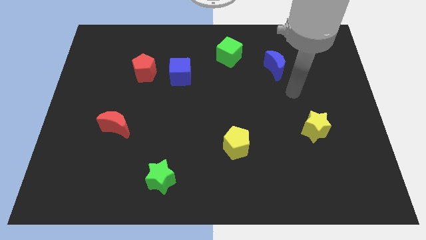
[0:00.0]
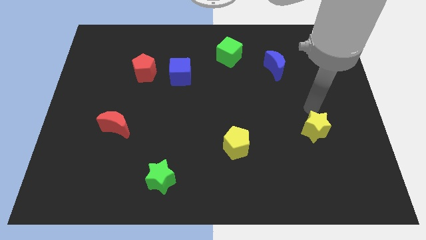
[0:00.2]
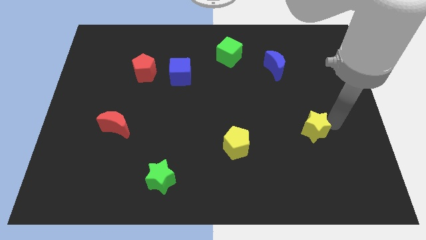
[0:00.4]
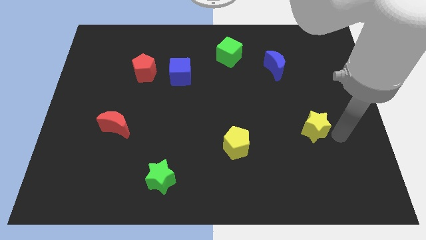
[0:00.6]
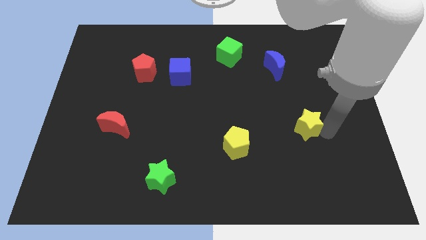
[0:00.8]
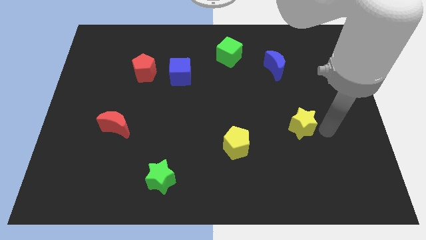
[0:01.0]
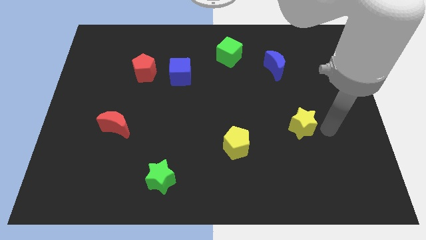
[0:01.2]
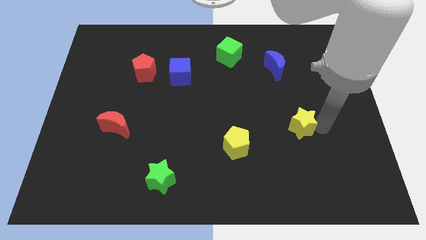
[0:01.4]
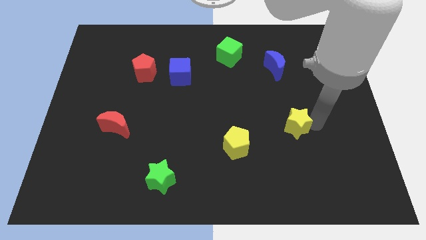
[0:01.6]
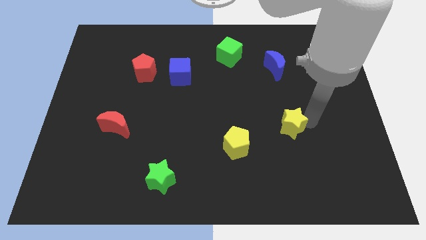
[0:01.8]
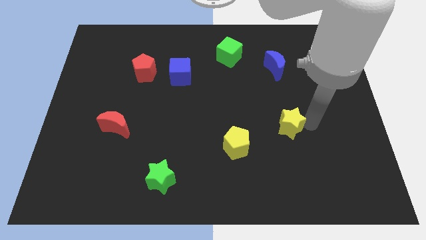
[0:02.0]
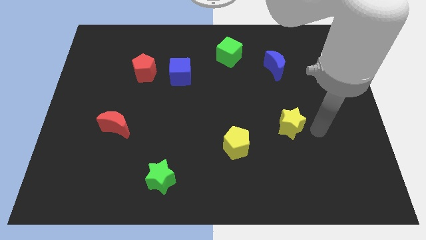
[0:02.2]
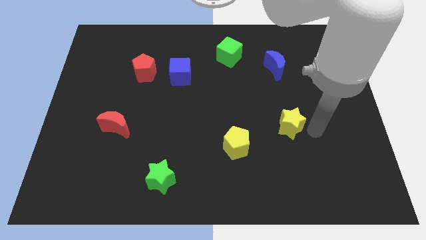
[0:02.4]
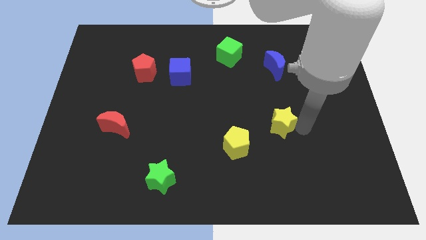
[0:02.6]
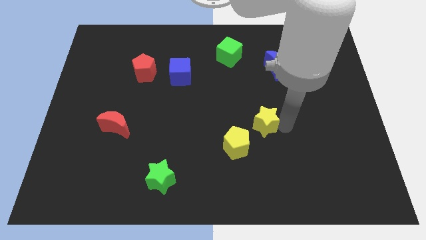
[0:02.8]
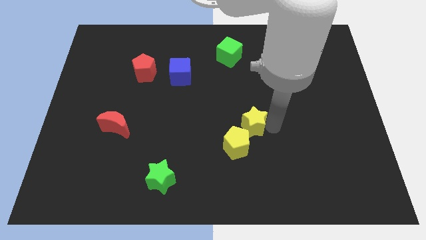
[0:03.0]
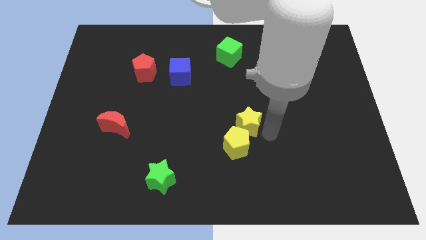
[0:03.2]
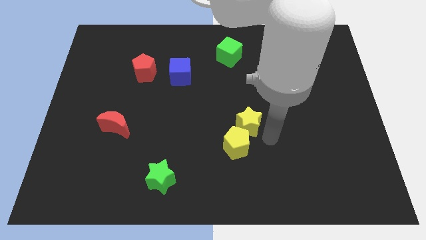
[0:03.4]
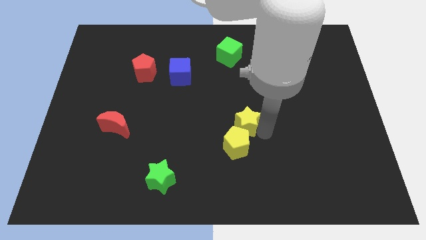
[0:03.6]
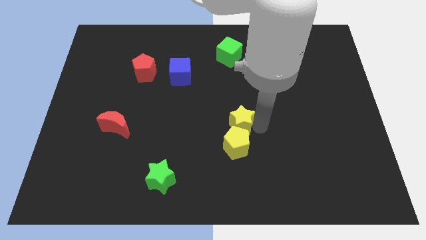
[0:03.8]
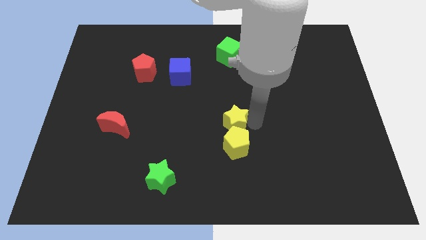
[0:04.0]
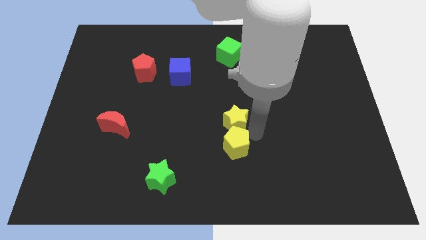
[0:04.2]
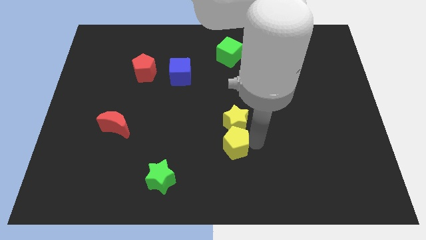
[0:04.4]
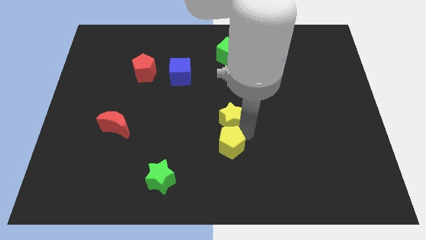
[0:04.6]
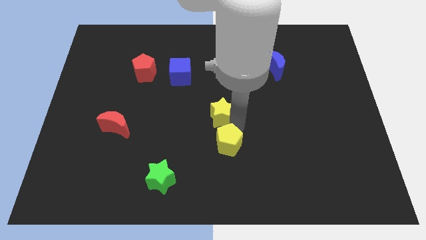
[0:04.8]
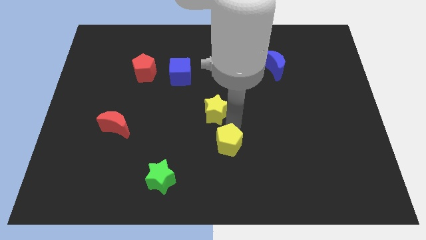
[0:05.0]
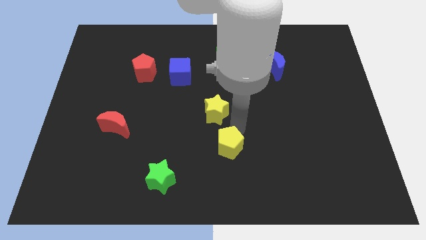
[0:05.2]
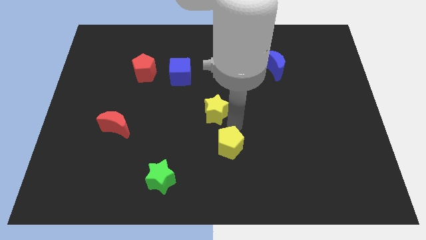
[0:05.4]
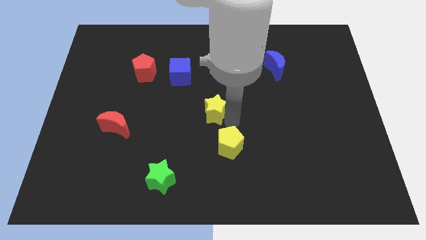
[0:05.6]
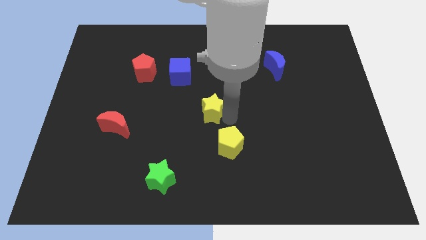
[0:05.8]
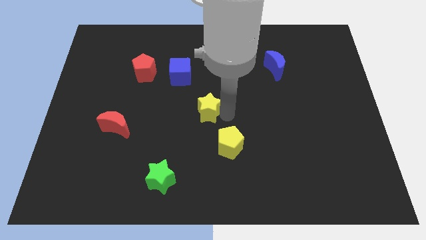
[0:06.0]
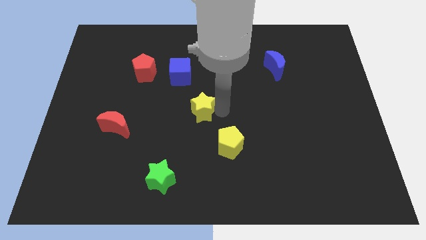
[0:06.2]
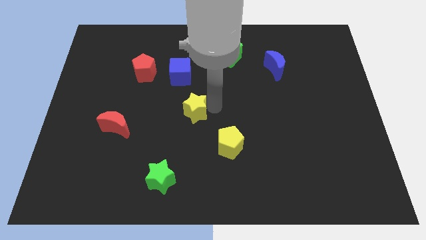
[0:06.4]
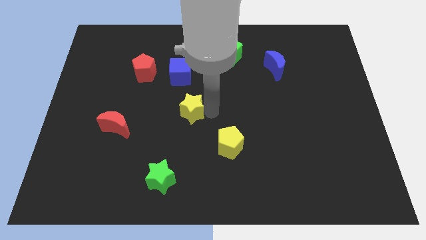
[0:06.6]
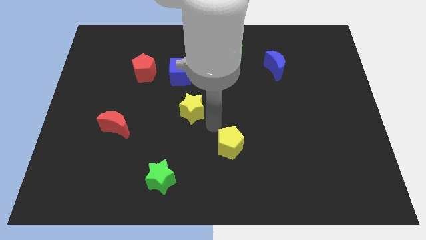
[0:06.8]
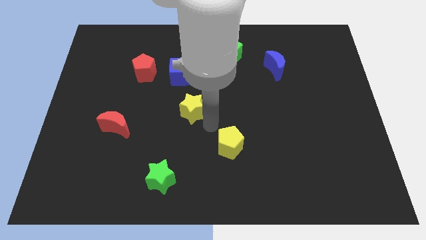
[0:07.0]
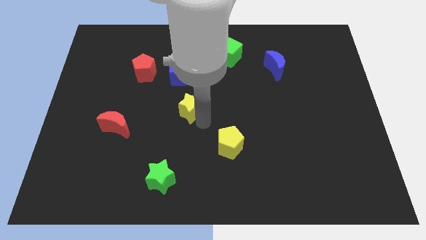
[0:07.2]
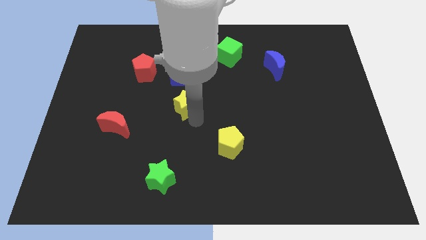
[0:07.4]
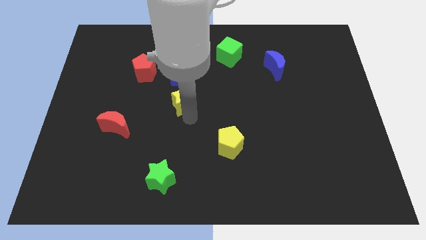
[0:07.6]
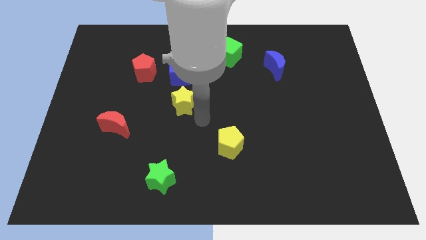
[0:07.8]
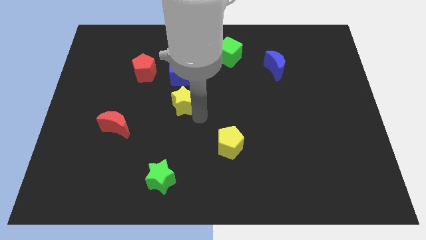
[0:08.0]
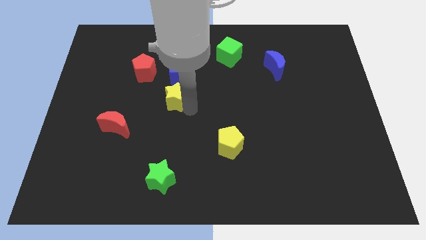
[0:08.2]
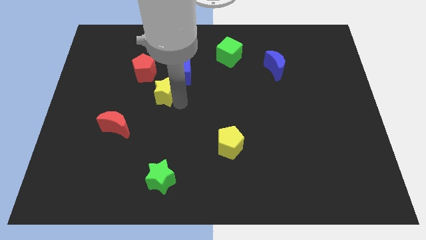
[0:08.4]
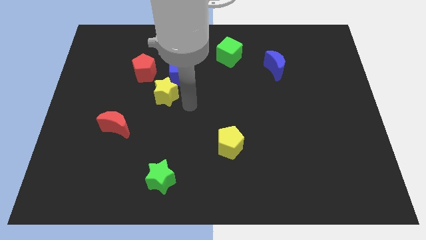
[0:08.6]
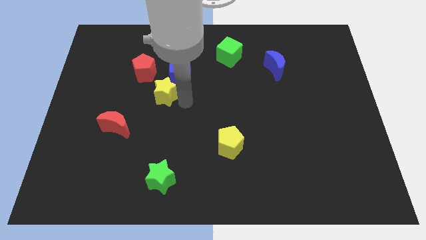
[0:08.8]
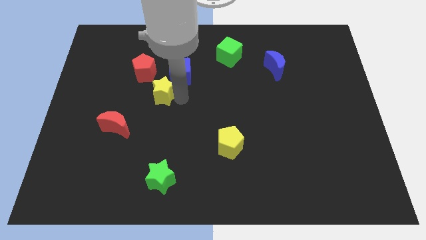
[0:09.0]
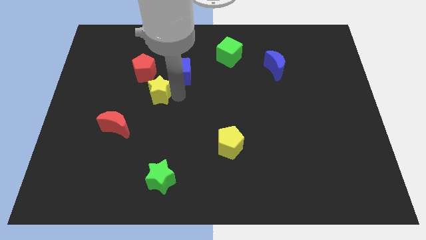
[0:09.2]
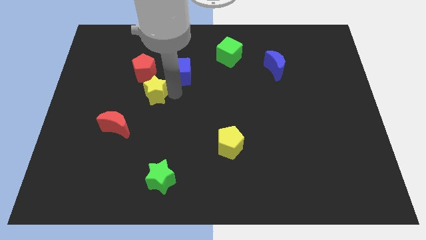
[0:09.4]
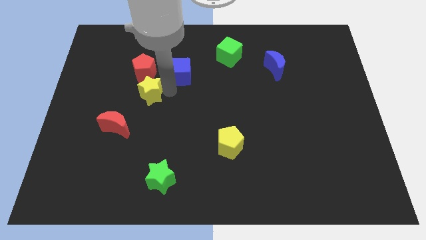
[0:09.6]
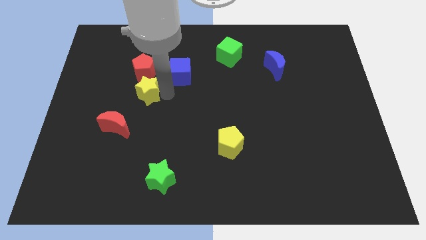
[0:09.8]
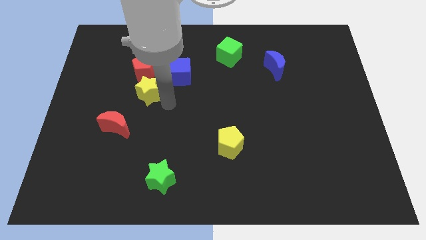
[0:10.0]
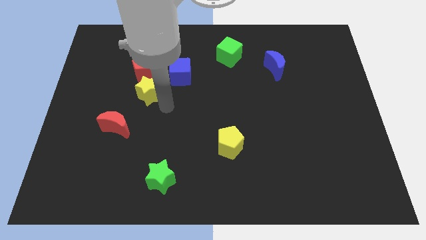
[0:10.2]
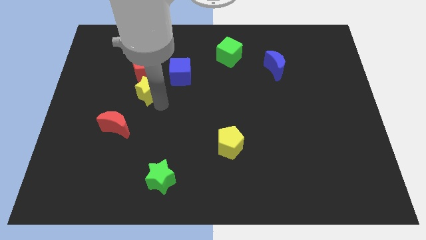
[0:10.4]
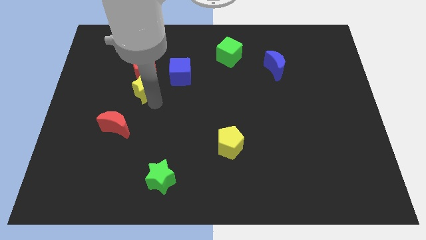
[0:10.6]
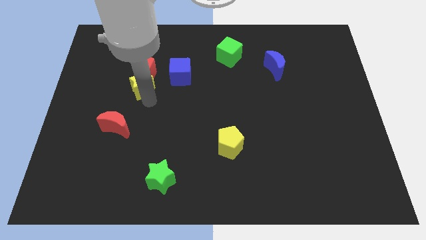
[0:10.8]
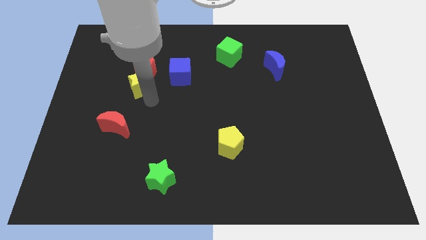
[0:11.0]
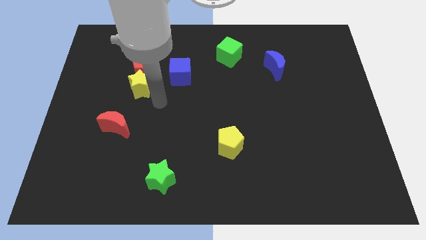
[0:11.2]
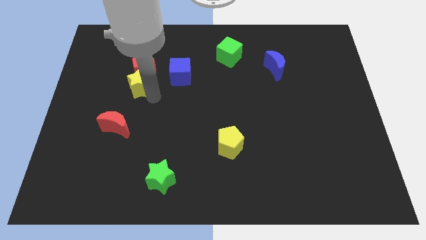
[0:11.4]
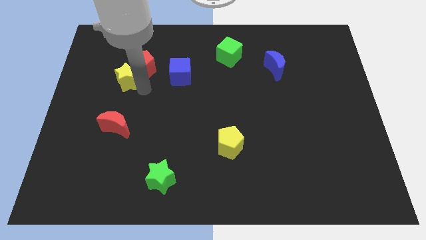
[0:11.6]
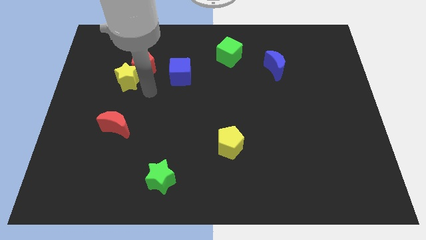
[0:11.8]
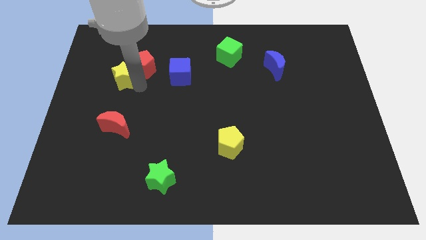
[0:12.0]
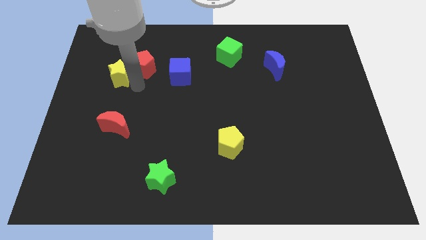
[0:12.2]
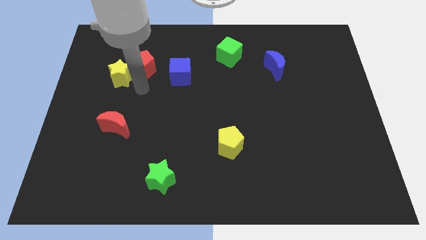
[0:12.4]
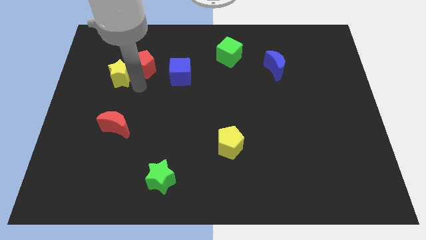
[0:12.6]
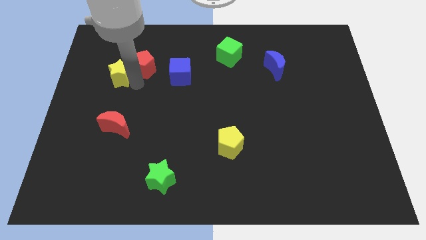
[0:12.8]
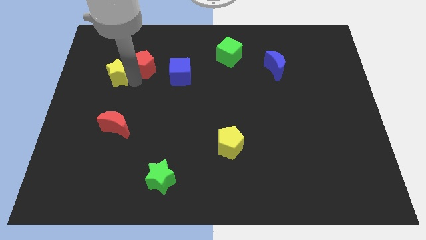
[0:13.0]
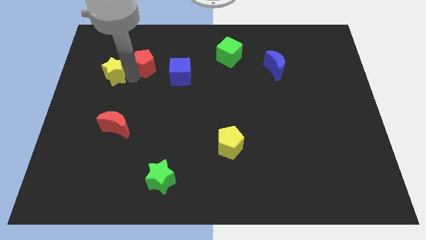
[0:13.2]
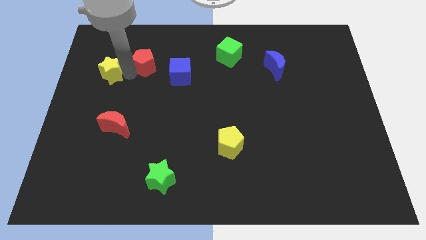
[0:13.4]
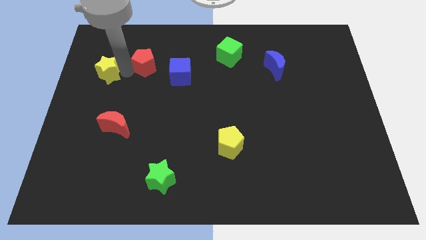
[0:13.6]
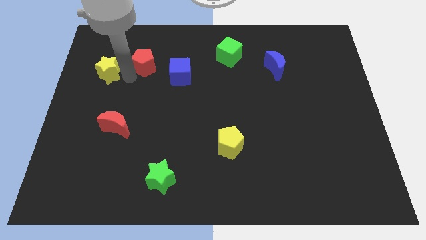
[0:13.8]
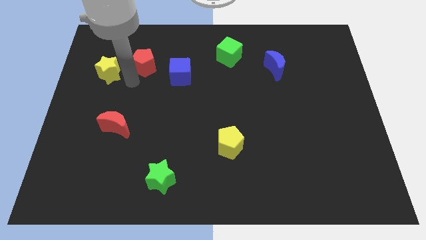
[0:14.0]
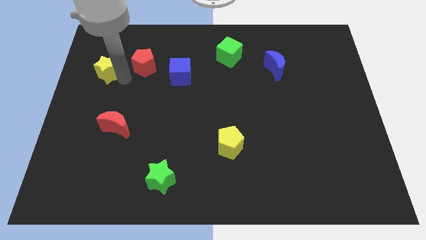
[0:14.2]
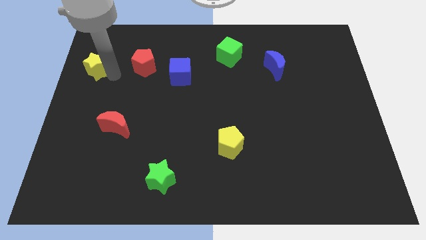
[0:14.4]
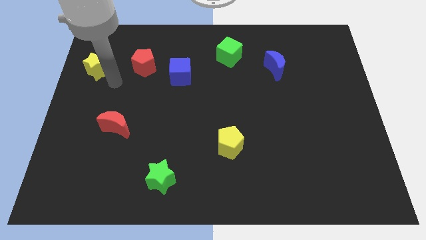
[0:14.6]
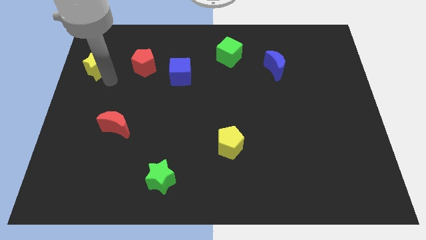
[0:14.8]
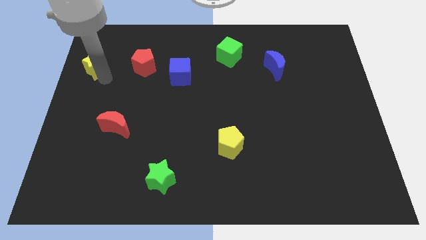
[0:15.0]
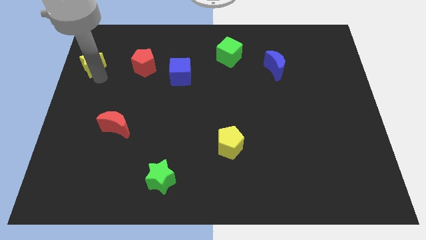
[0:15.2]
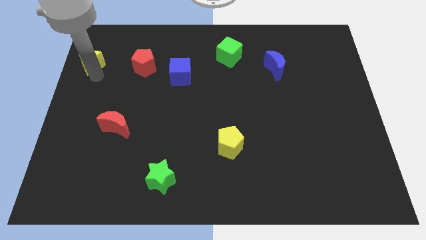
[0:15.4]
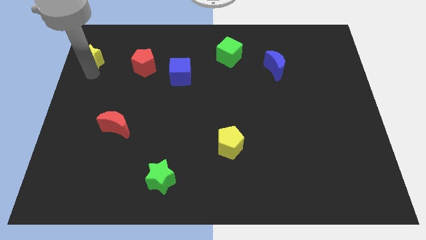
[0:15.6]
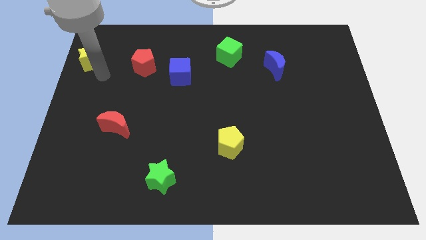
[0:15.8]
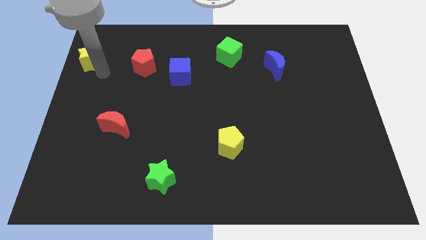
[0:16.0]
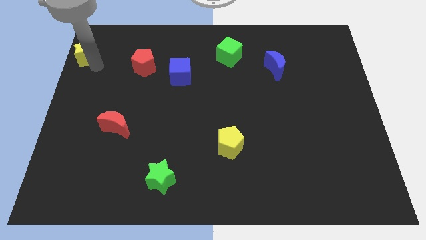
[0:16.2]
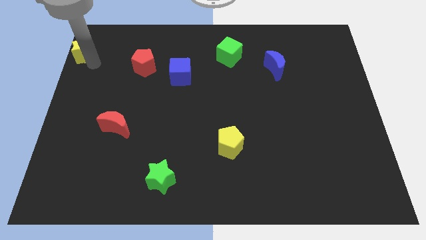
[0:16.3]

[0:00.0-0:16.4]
move the yellow star to the upper left corner
